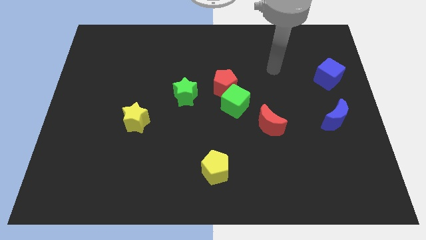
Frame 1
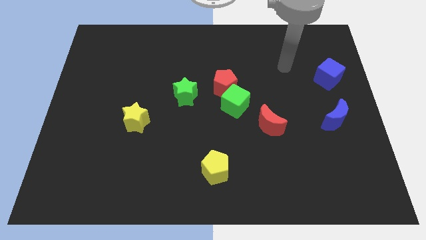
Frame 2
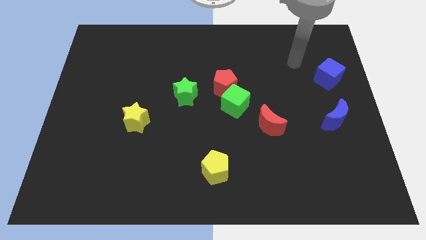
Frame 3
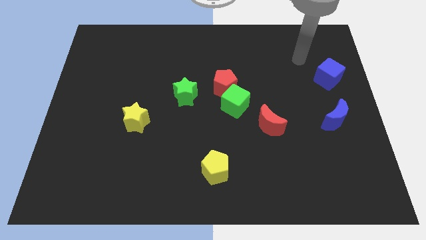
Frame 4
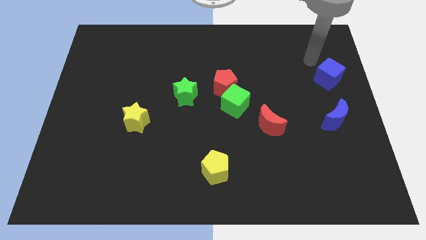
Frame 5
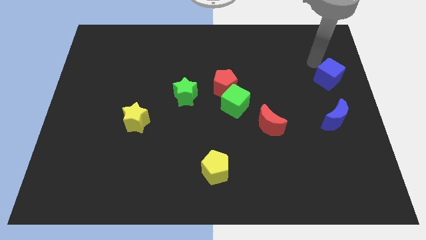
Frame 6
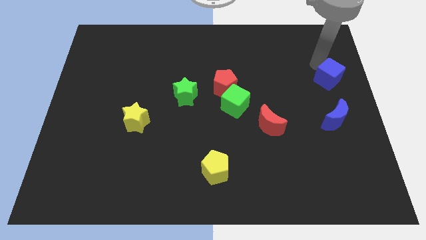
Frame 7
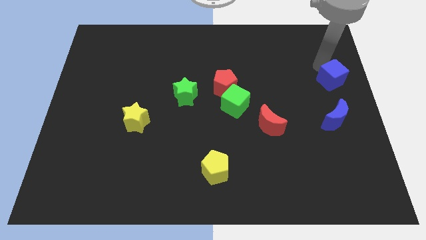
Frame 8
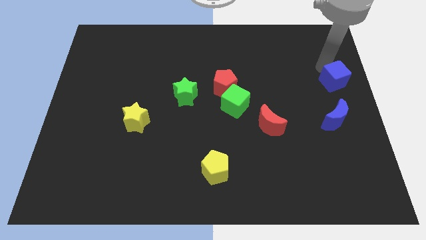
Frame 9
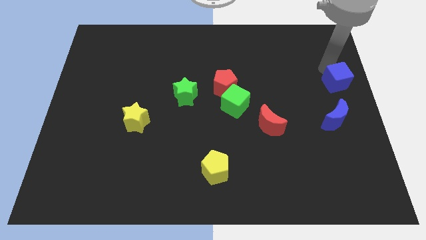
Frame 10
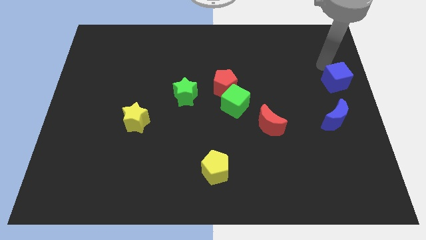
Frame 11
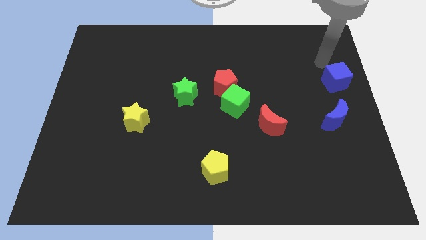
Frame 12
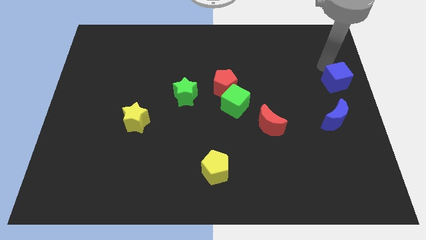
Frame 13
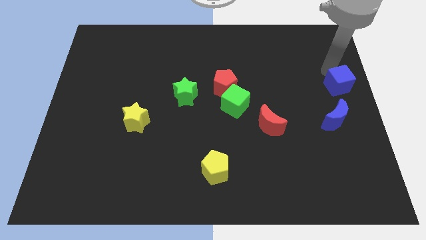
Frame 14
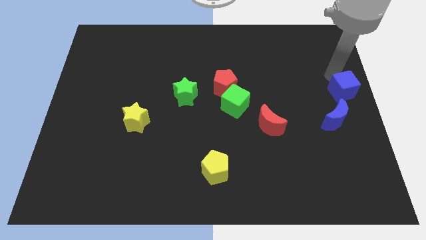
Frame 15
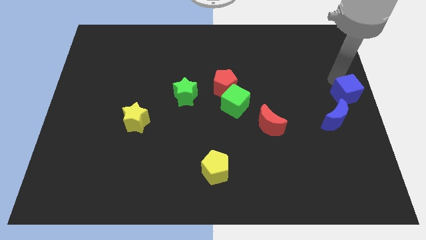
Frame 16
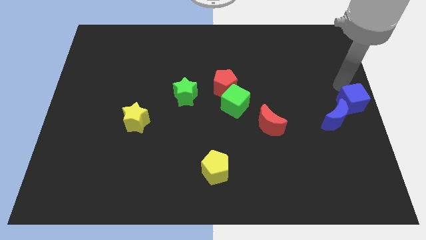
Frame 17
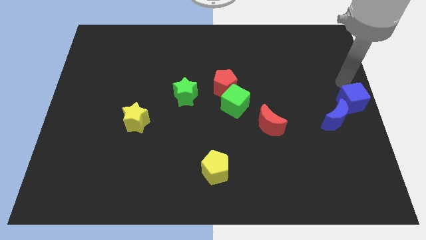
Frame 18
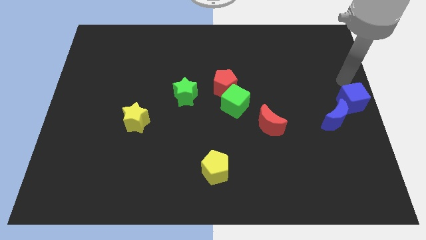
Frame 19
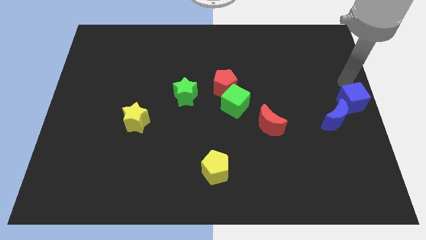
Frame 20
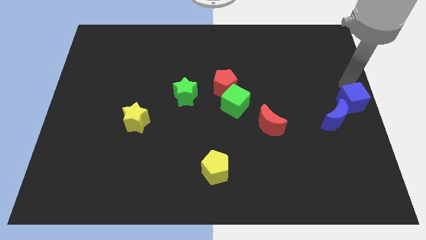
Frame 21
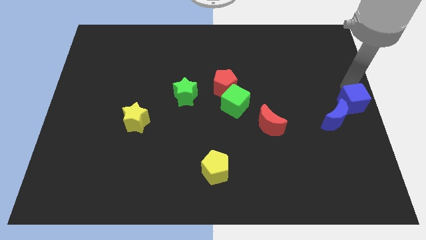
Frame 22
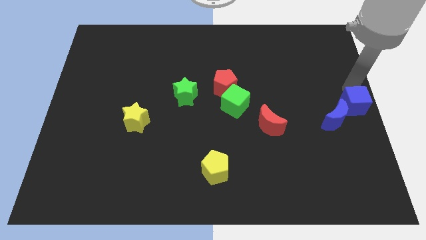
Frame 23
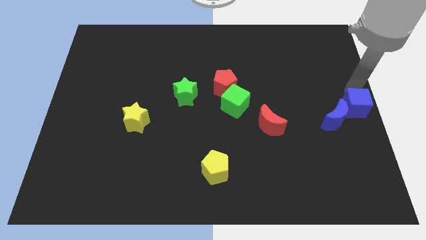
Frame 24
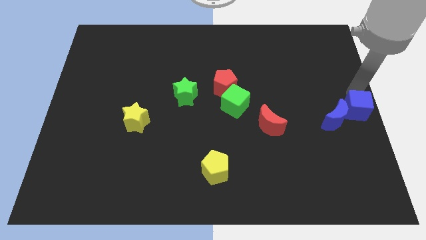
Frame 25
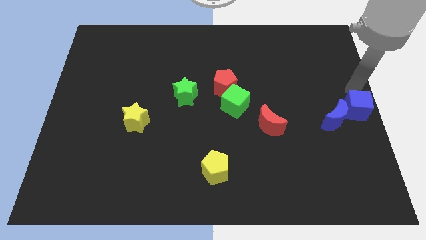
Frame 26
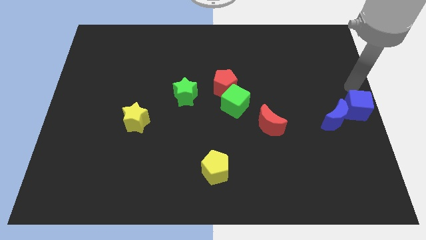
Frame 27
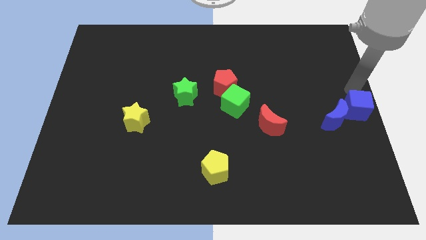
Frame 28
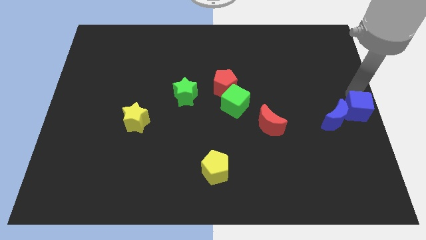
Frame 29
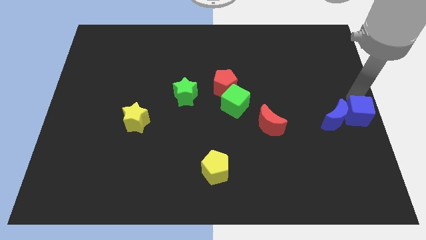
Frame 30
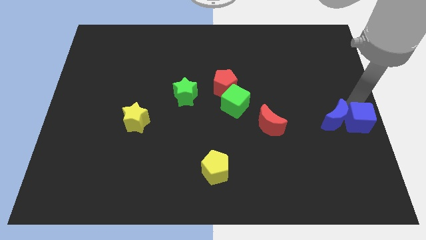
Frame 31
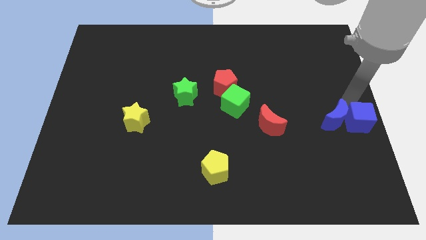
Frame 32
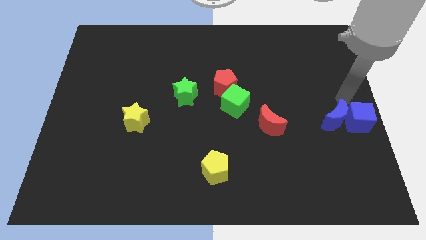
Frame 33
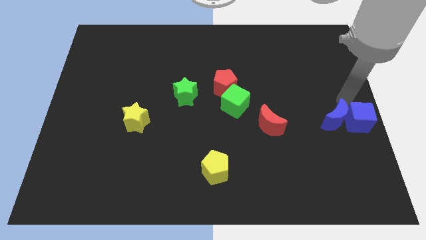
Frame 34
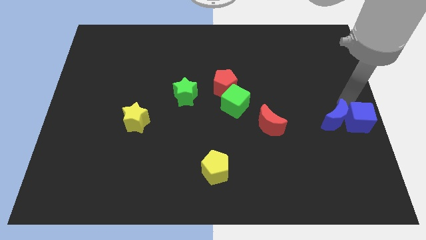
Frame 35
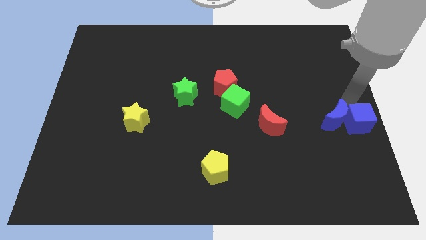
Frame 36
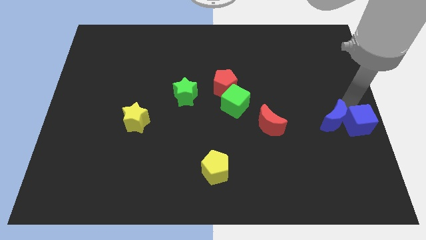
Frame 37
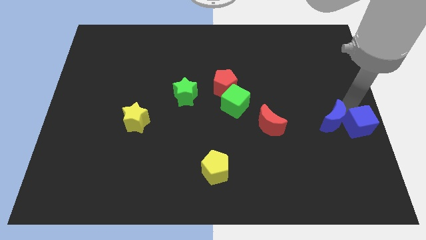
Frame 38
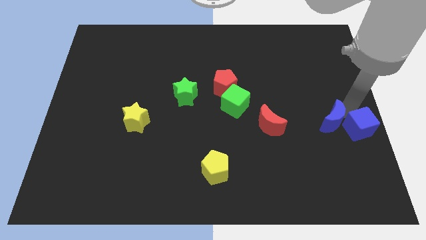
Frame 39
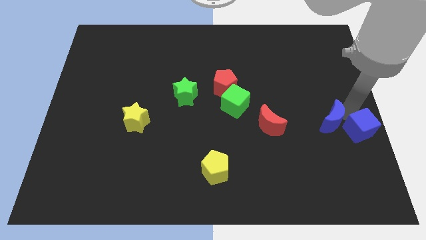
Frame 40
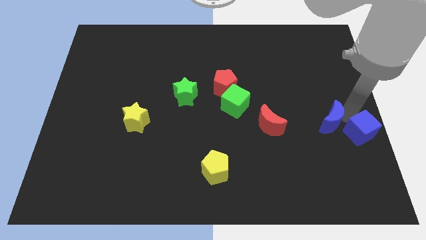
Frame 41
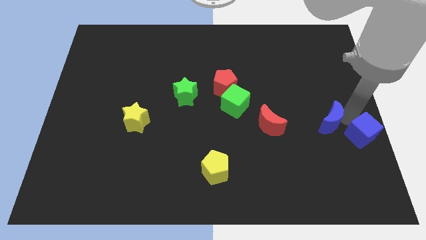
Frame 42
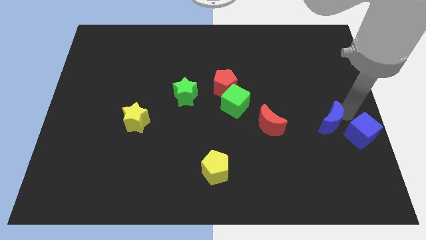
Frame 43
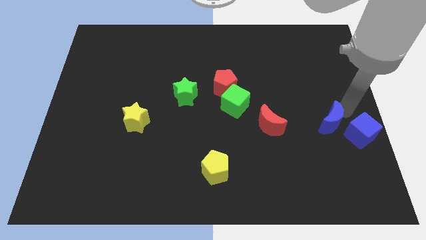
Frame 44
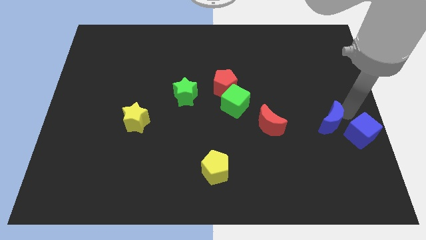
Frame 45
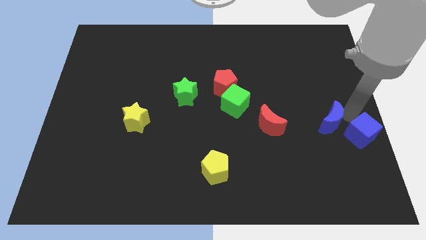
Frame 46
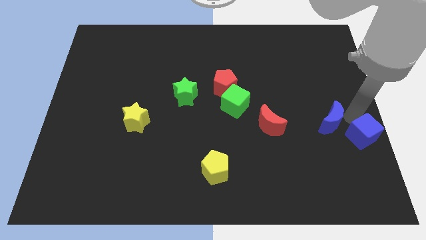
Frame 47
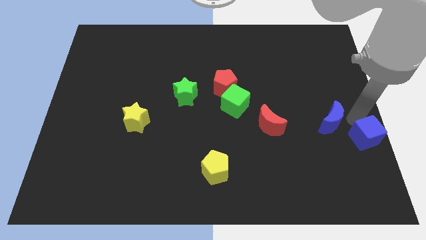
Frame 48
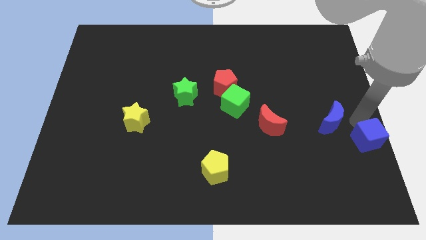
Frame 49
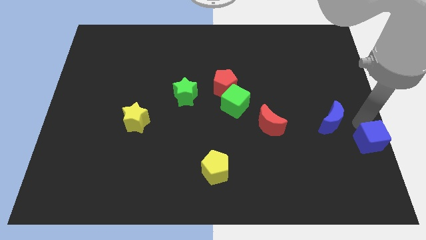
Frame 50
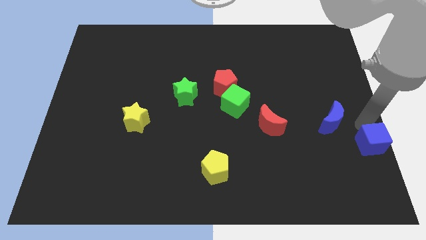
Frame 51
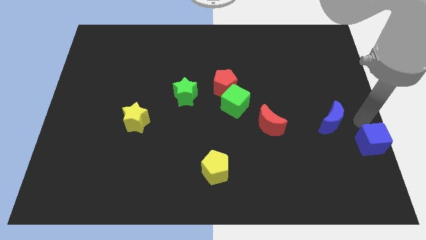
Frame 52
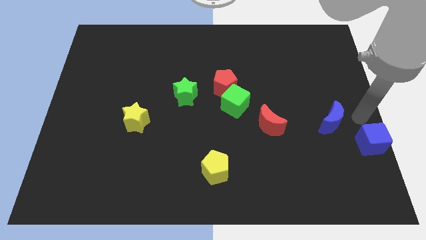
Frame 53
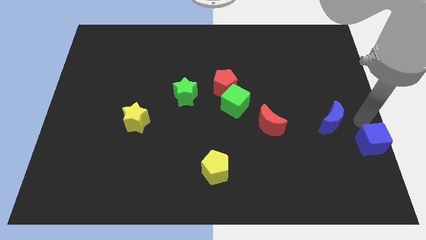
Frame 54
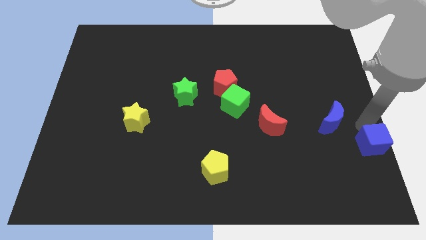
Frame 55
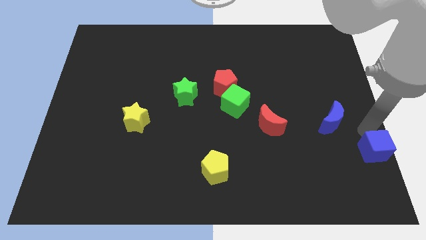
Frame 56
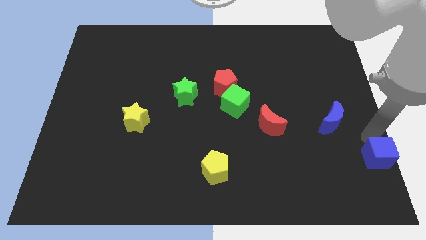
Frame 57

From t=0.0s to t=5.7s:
push the blue cube to the lower right corner
